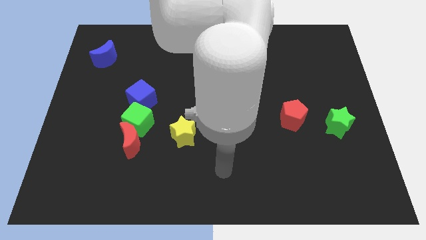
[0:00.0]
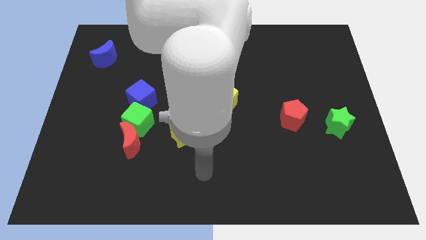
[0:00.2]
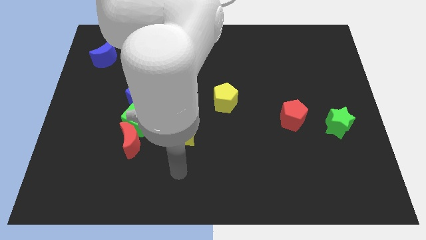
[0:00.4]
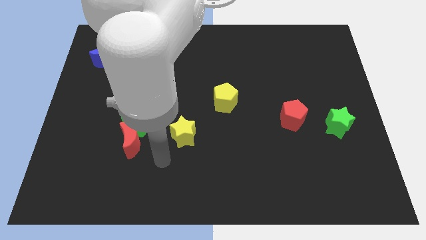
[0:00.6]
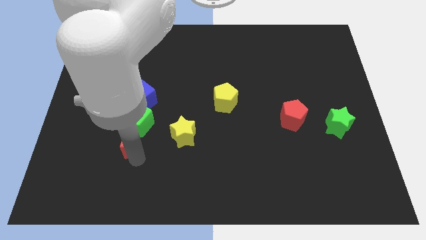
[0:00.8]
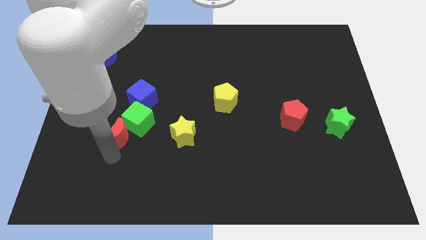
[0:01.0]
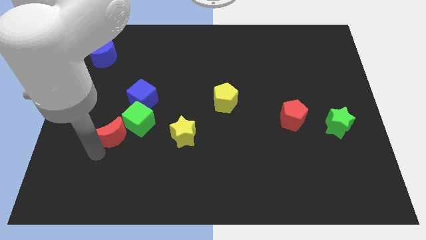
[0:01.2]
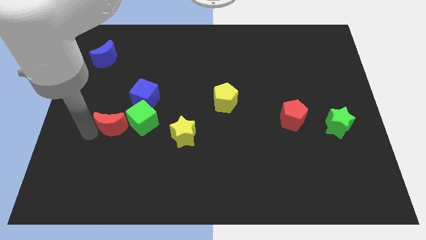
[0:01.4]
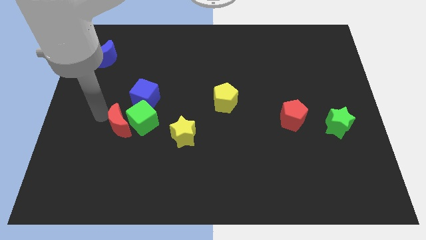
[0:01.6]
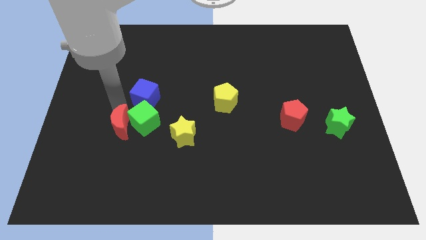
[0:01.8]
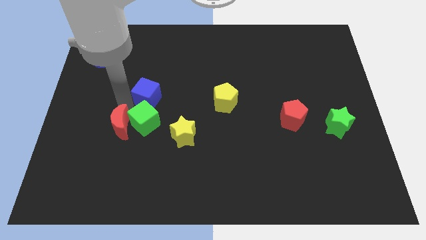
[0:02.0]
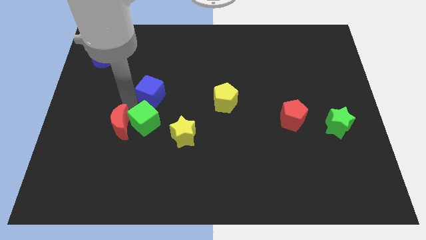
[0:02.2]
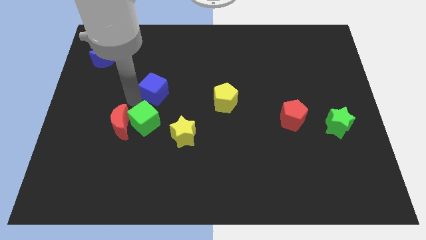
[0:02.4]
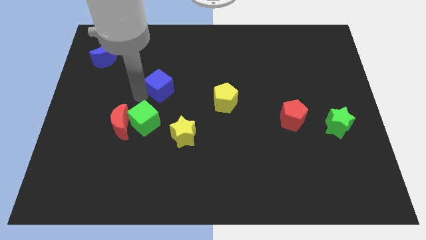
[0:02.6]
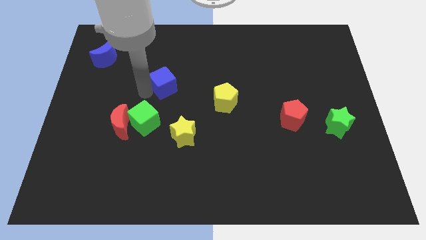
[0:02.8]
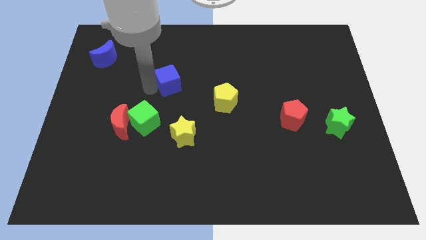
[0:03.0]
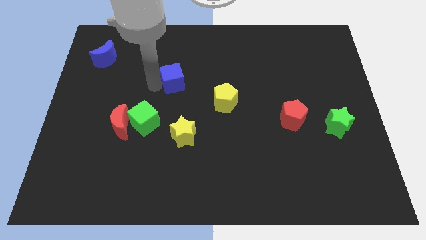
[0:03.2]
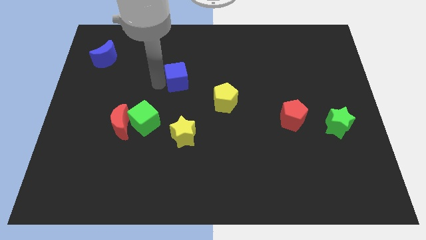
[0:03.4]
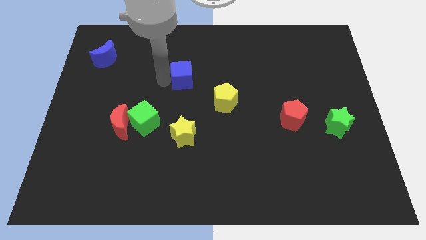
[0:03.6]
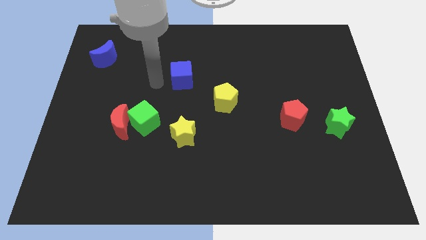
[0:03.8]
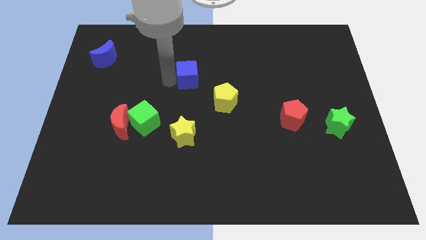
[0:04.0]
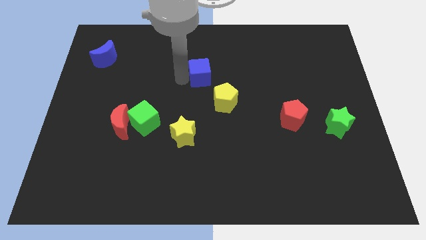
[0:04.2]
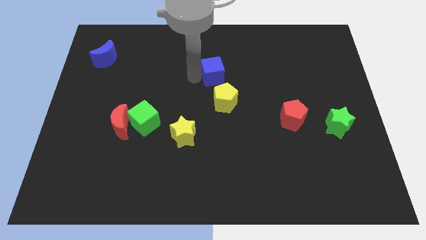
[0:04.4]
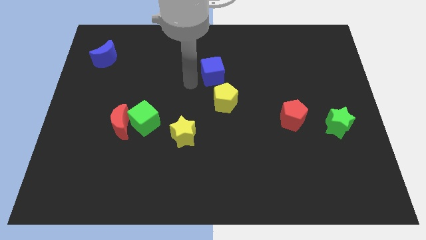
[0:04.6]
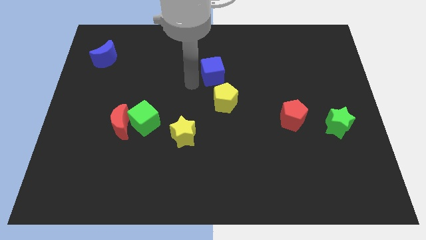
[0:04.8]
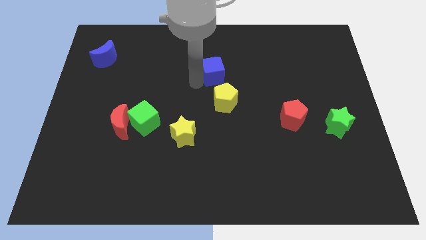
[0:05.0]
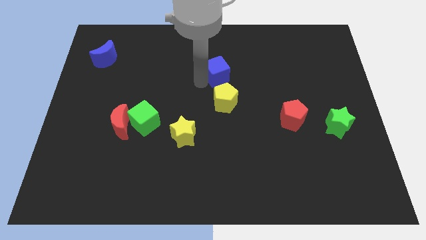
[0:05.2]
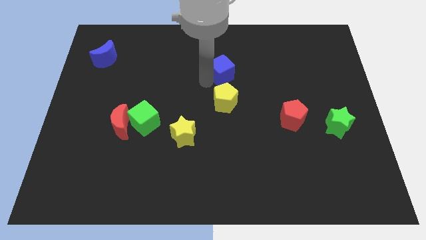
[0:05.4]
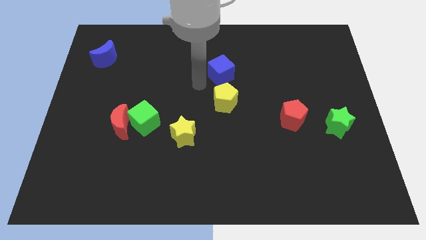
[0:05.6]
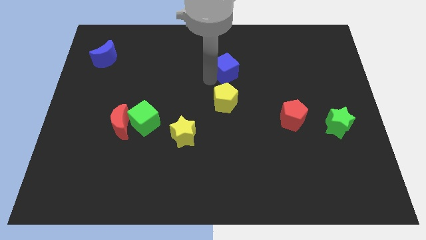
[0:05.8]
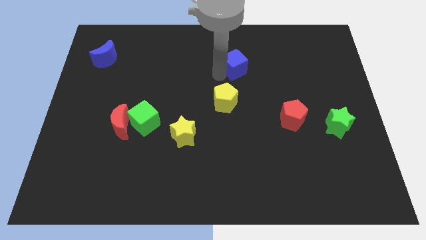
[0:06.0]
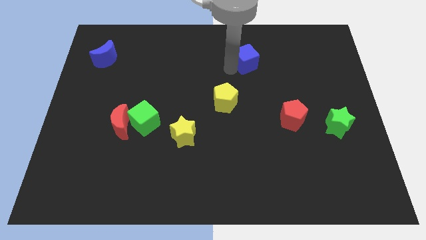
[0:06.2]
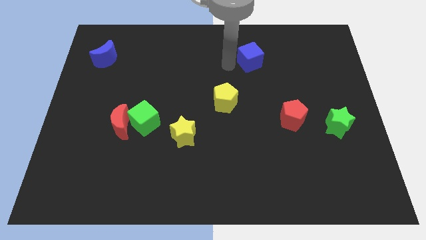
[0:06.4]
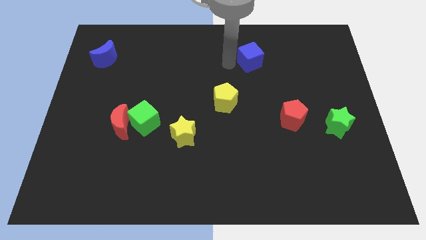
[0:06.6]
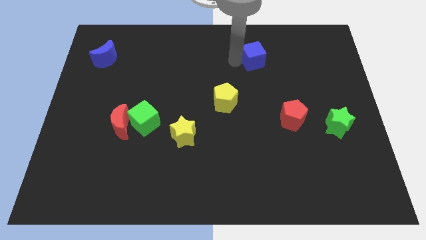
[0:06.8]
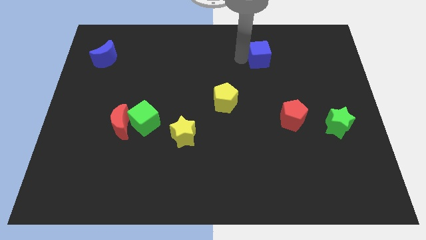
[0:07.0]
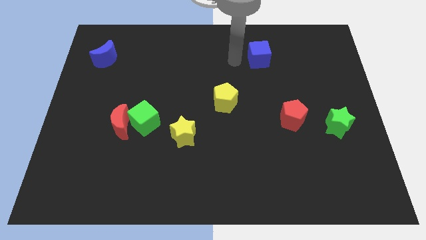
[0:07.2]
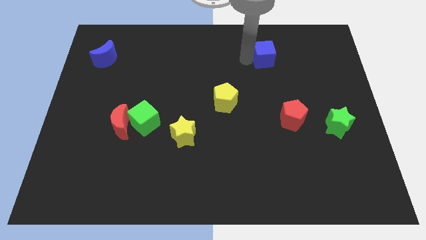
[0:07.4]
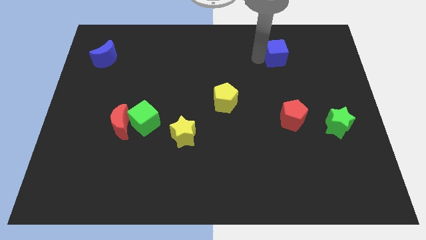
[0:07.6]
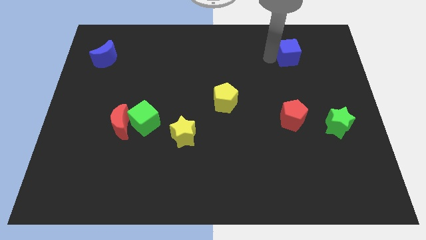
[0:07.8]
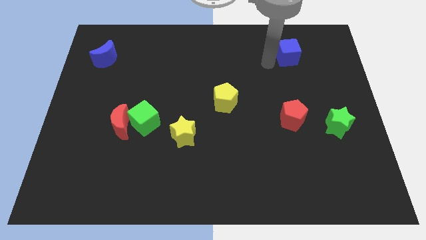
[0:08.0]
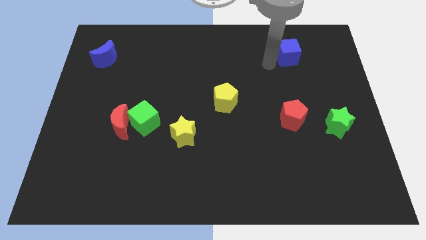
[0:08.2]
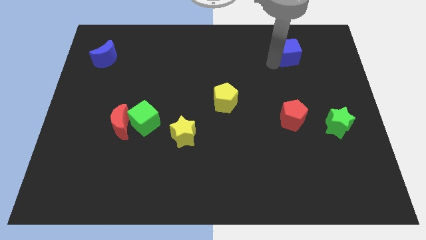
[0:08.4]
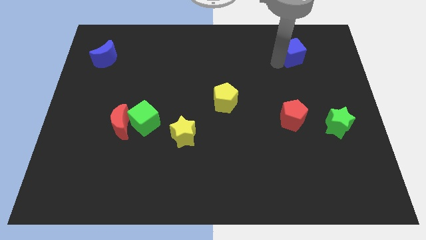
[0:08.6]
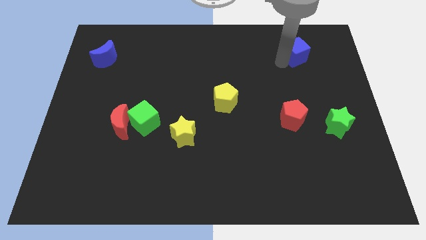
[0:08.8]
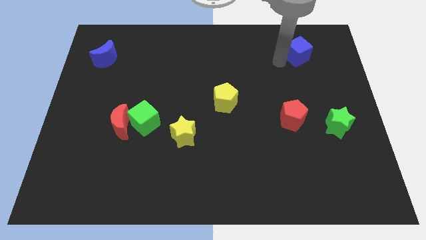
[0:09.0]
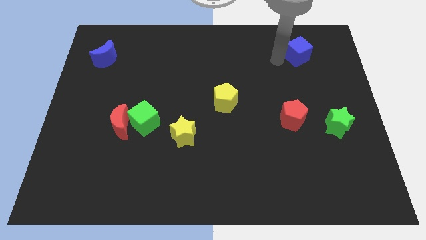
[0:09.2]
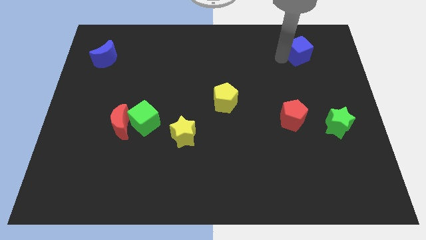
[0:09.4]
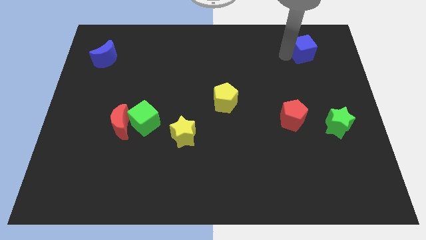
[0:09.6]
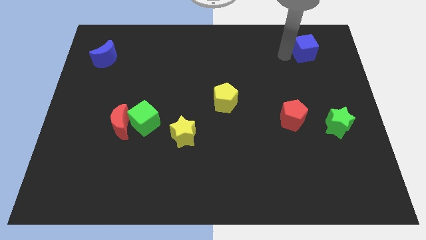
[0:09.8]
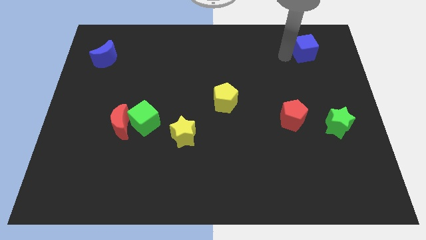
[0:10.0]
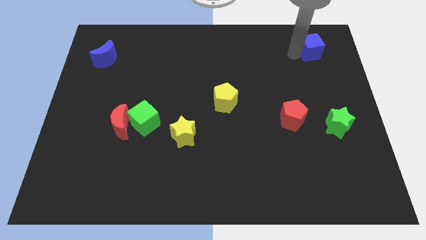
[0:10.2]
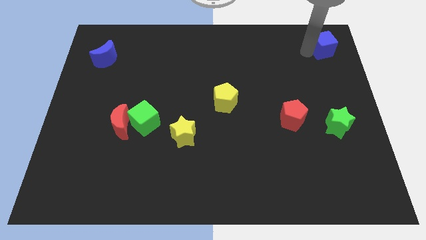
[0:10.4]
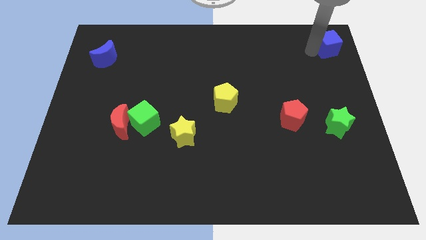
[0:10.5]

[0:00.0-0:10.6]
push the blue cube to the upper right corner
